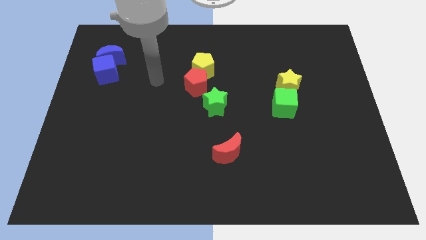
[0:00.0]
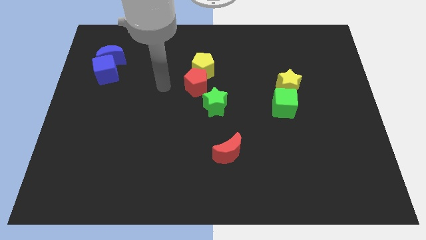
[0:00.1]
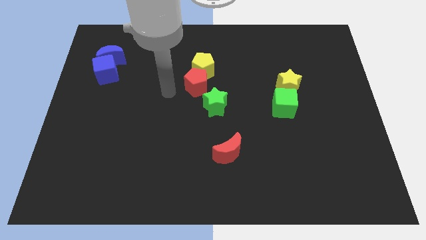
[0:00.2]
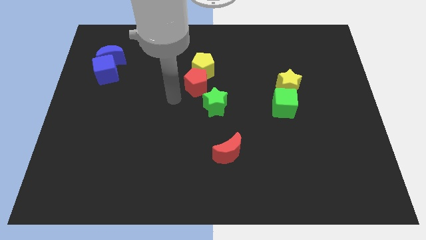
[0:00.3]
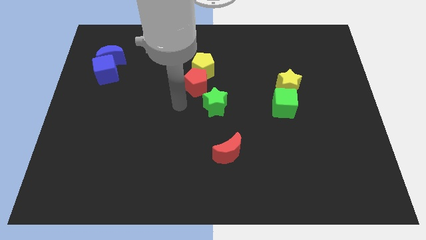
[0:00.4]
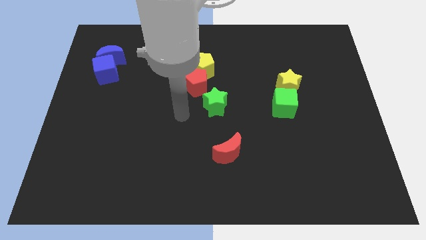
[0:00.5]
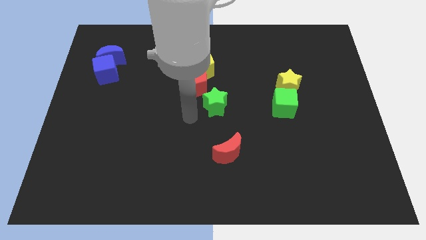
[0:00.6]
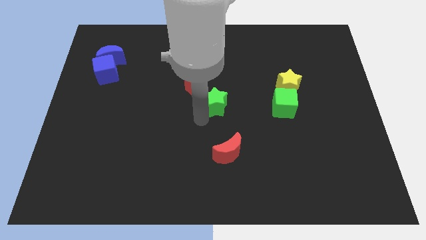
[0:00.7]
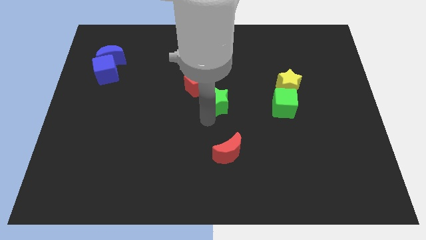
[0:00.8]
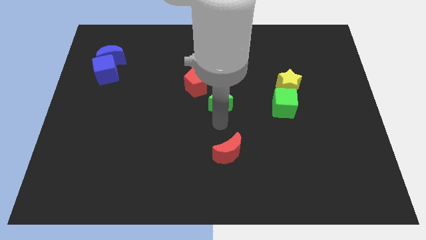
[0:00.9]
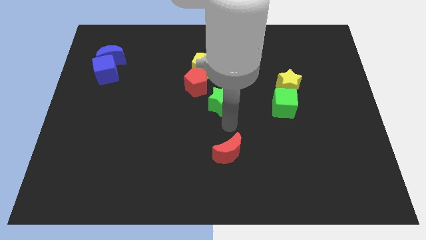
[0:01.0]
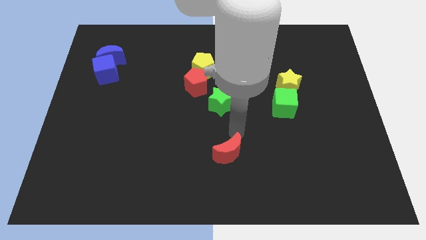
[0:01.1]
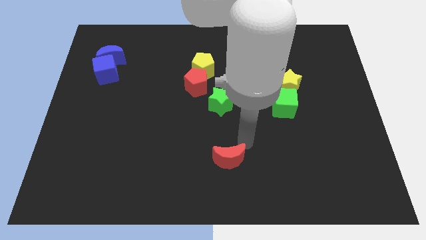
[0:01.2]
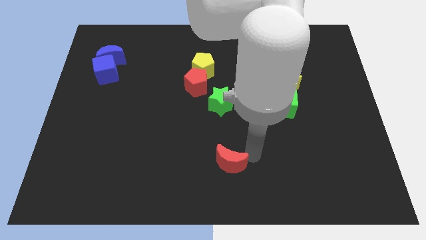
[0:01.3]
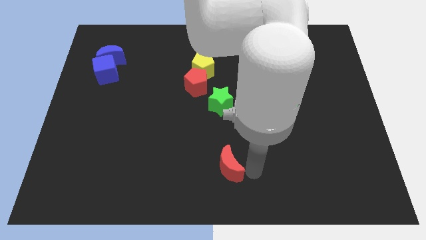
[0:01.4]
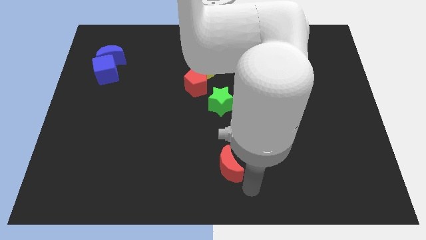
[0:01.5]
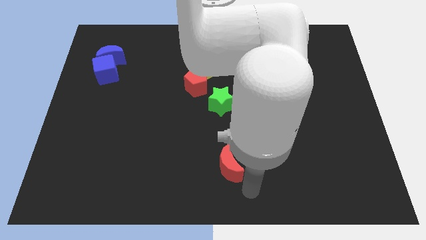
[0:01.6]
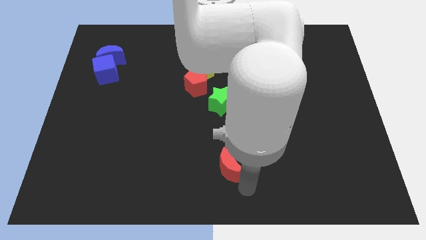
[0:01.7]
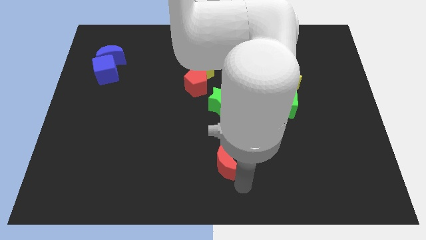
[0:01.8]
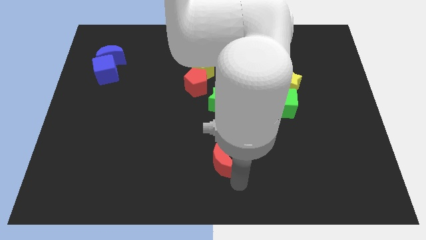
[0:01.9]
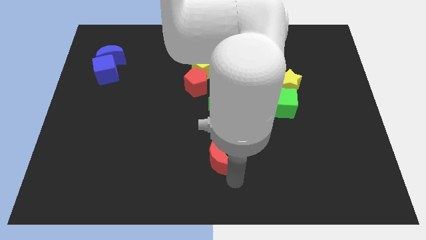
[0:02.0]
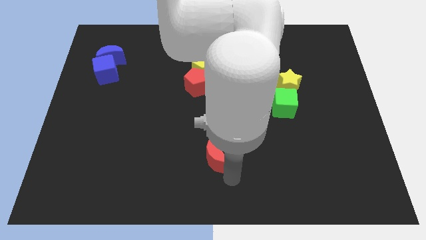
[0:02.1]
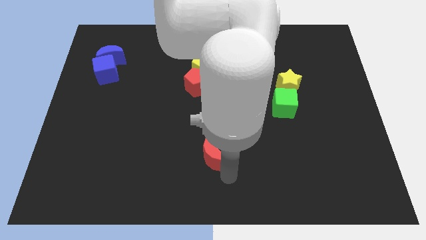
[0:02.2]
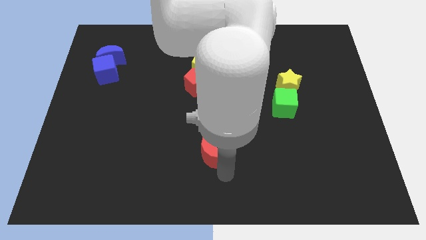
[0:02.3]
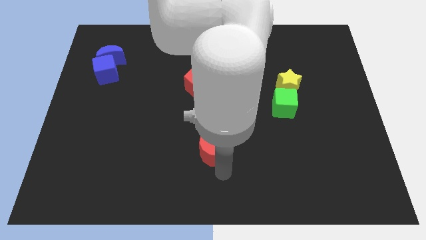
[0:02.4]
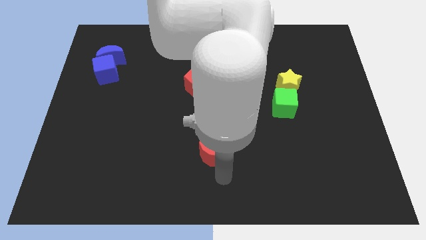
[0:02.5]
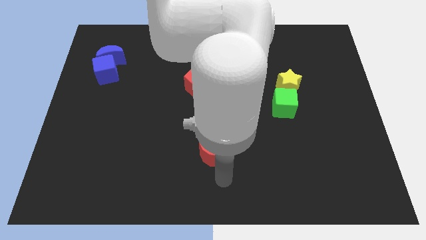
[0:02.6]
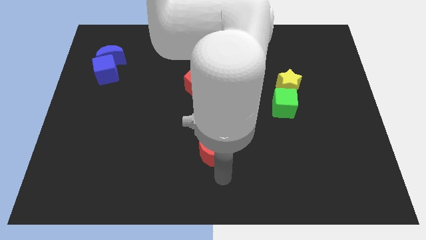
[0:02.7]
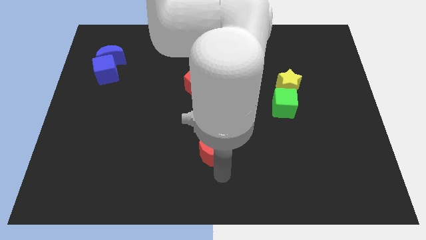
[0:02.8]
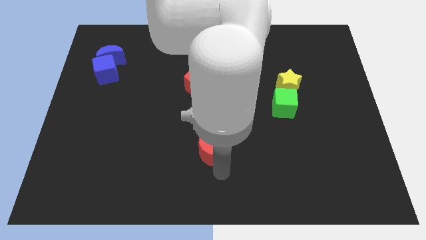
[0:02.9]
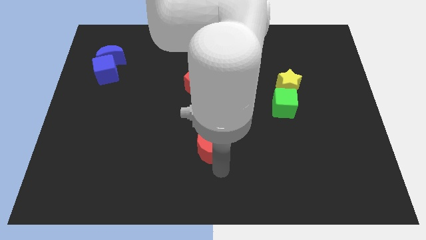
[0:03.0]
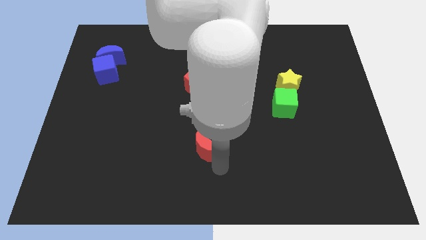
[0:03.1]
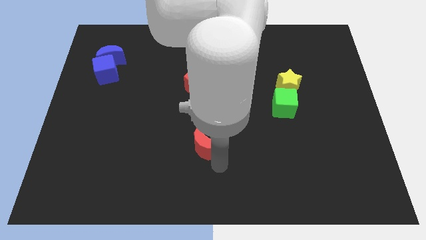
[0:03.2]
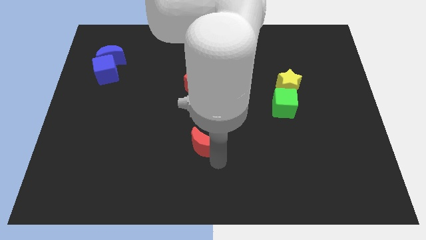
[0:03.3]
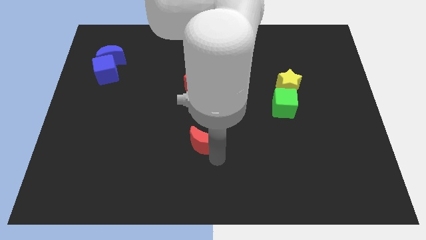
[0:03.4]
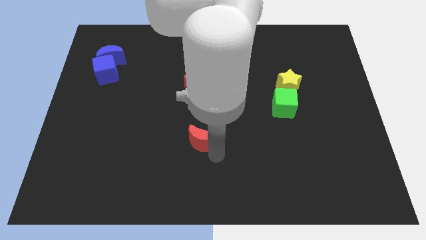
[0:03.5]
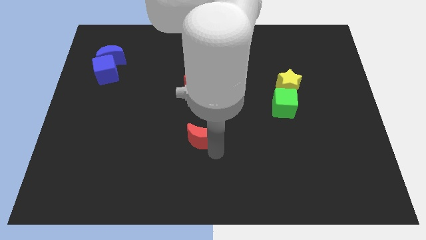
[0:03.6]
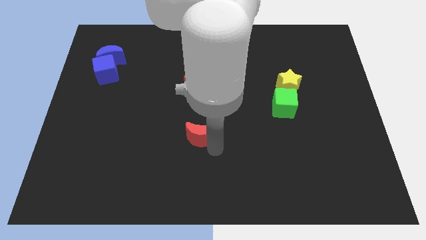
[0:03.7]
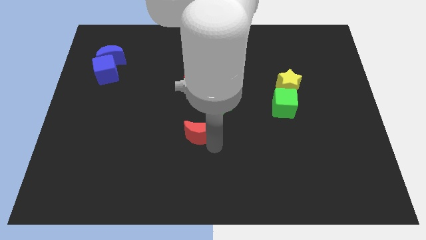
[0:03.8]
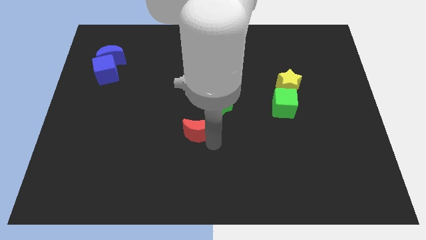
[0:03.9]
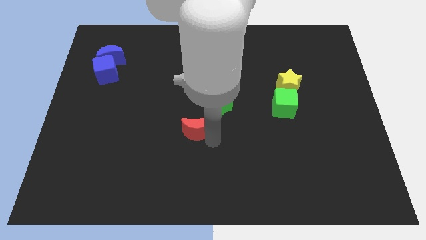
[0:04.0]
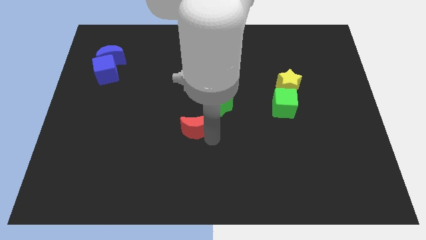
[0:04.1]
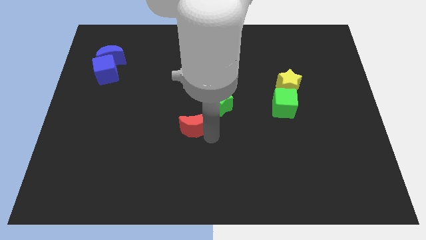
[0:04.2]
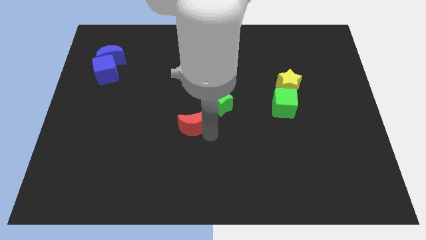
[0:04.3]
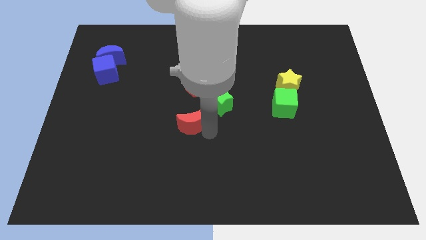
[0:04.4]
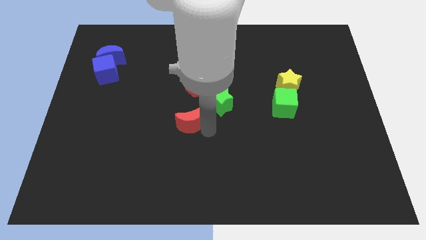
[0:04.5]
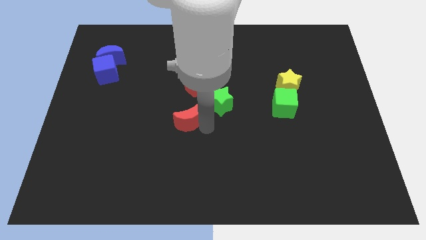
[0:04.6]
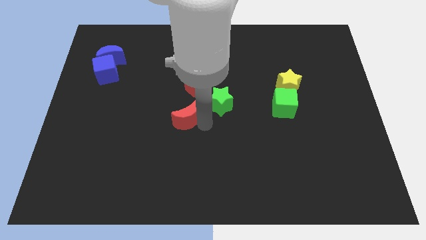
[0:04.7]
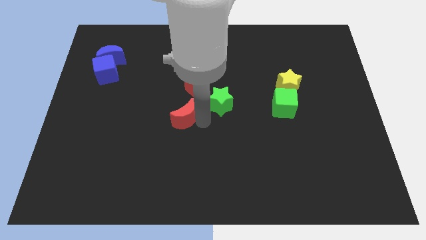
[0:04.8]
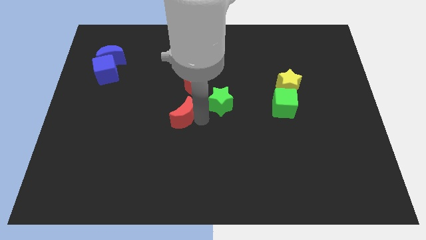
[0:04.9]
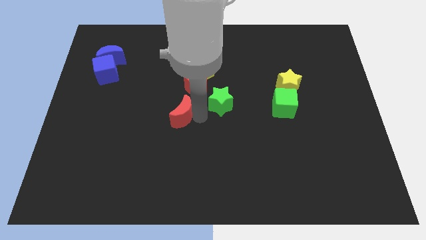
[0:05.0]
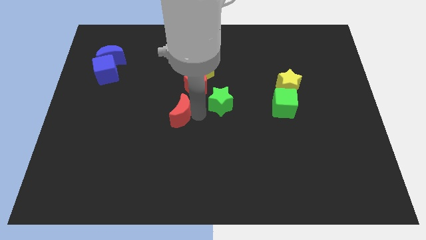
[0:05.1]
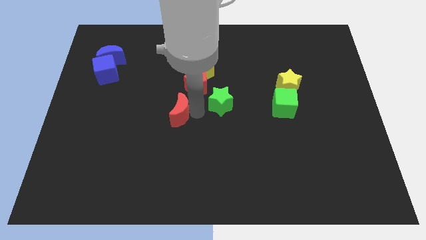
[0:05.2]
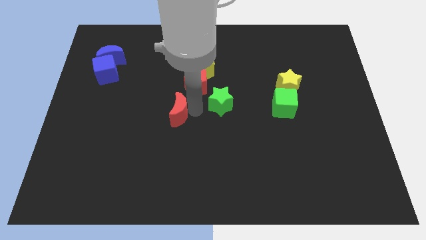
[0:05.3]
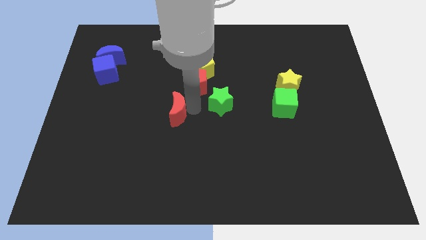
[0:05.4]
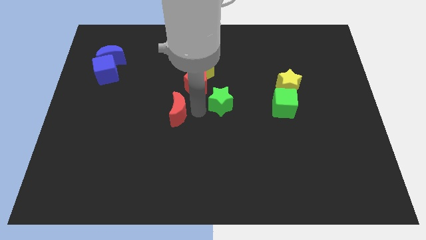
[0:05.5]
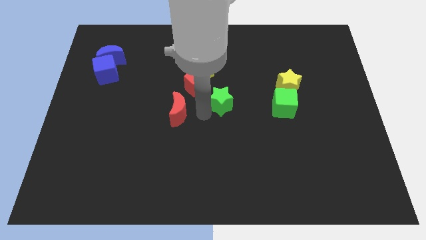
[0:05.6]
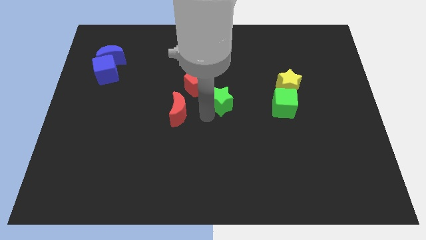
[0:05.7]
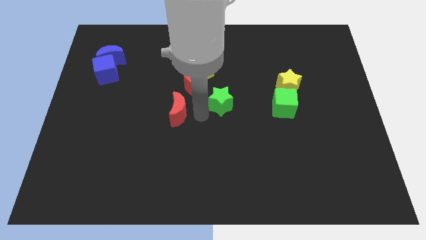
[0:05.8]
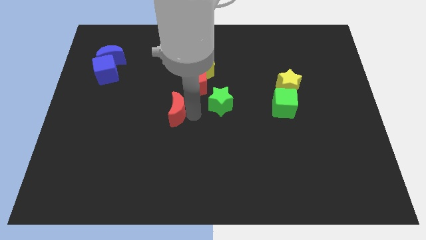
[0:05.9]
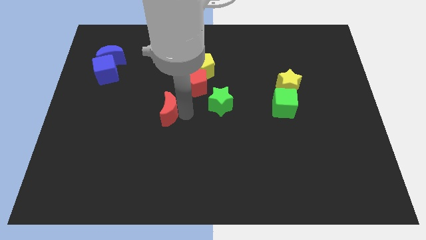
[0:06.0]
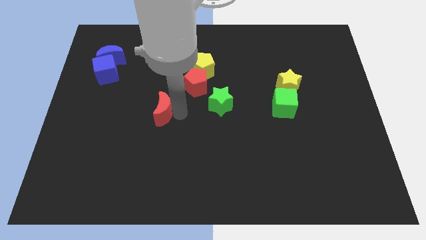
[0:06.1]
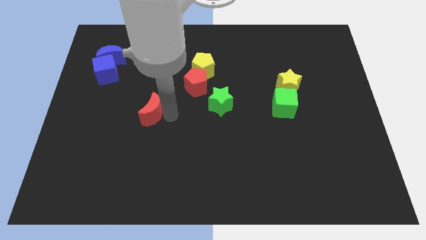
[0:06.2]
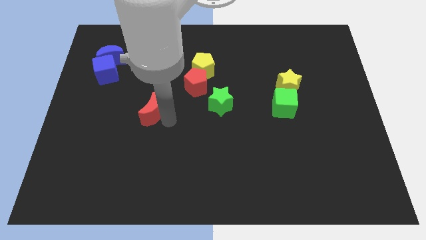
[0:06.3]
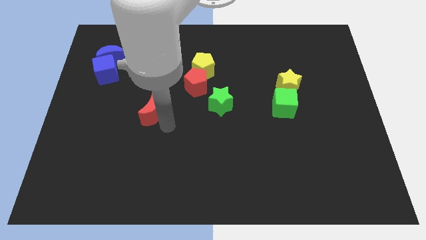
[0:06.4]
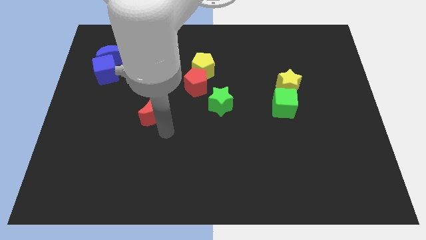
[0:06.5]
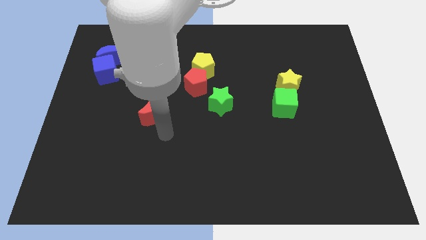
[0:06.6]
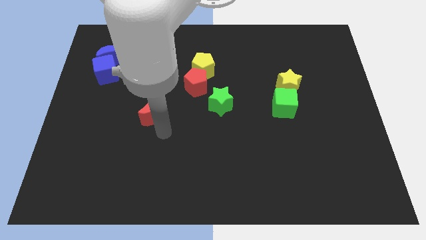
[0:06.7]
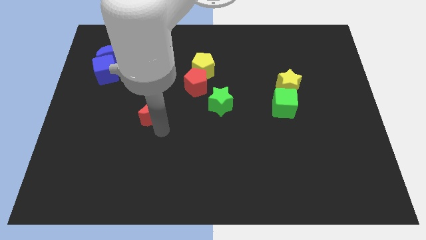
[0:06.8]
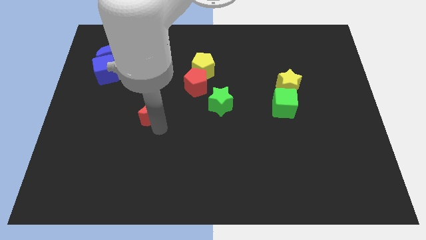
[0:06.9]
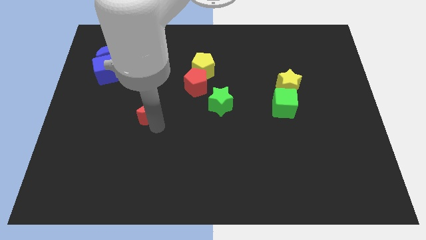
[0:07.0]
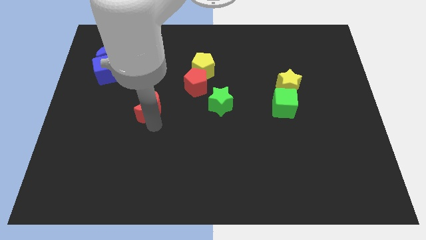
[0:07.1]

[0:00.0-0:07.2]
move the red moon diagonally upwards and to the left

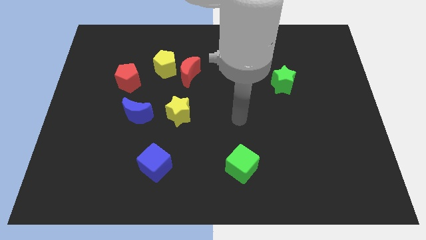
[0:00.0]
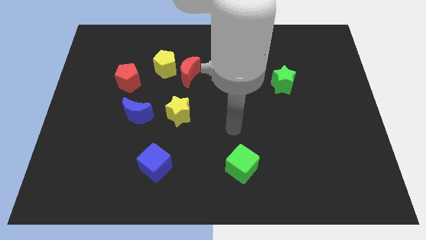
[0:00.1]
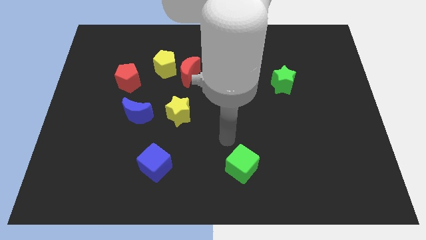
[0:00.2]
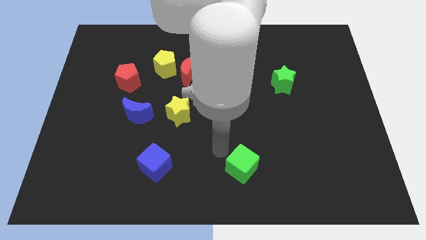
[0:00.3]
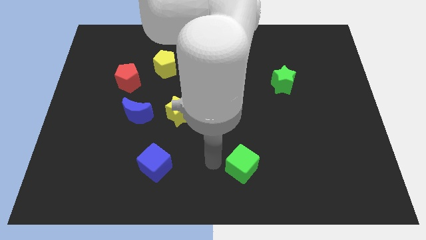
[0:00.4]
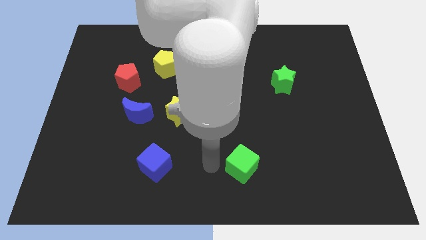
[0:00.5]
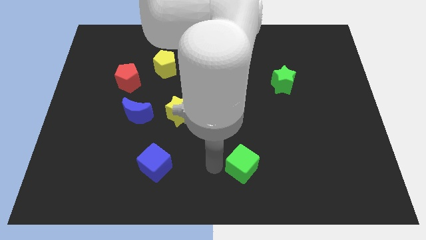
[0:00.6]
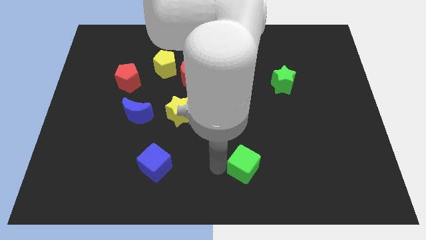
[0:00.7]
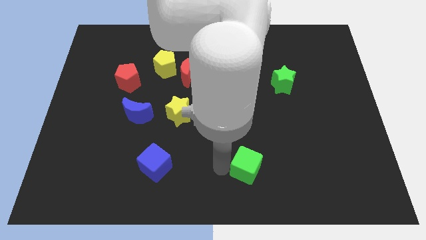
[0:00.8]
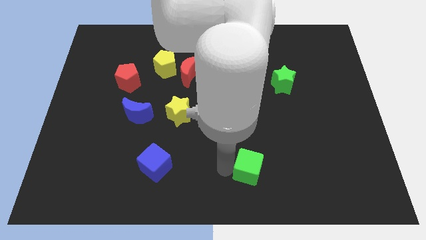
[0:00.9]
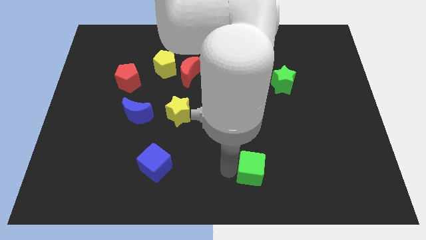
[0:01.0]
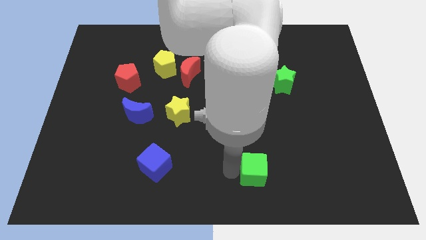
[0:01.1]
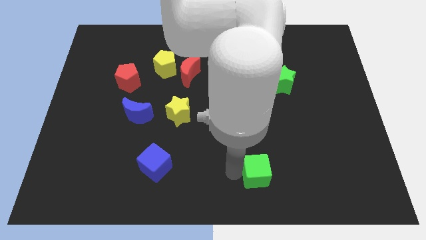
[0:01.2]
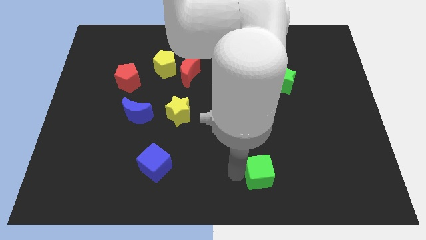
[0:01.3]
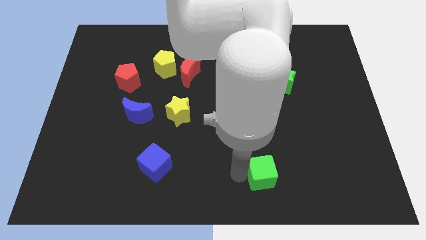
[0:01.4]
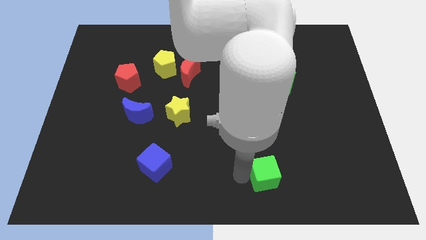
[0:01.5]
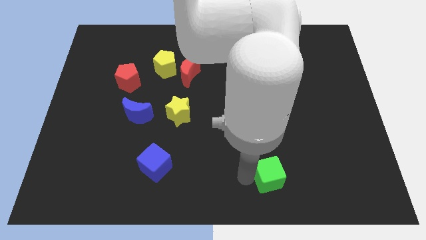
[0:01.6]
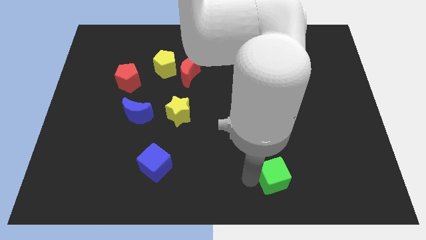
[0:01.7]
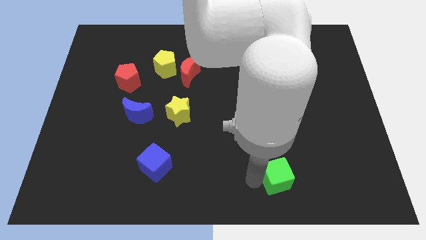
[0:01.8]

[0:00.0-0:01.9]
slightly move the green cube right
